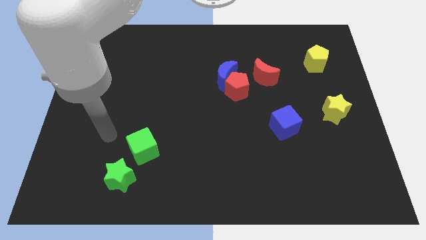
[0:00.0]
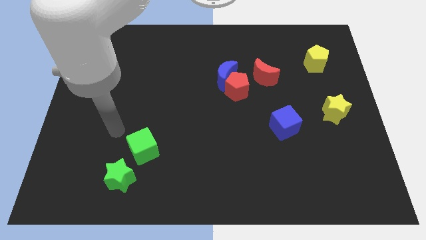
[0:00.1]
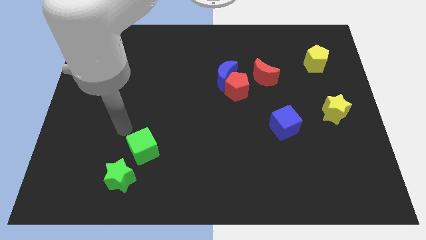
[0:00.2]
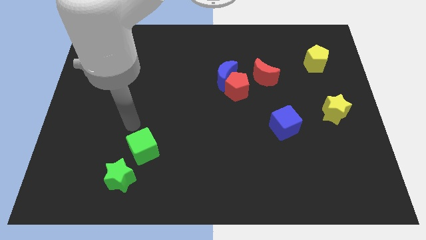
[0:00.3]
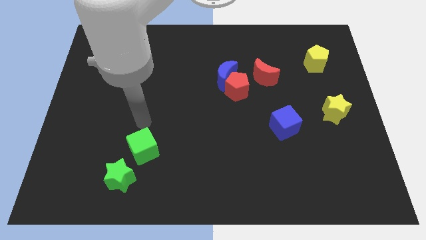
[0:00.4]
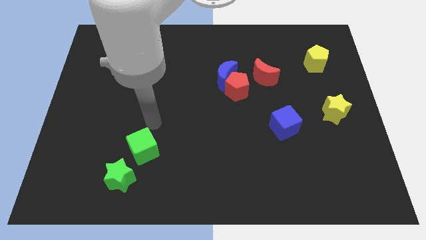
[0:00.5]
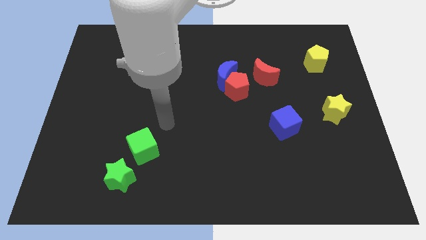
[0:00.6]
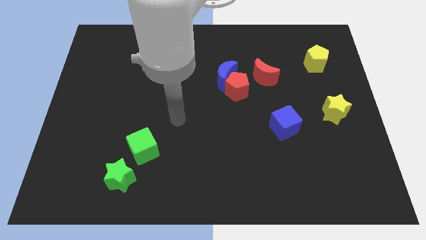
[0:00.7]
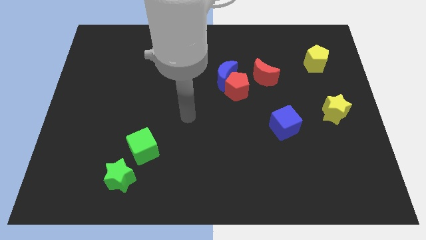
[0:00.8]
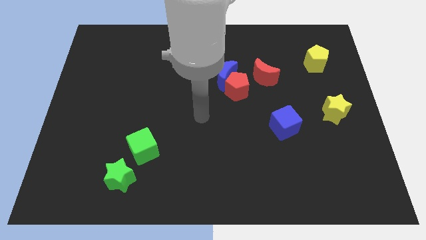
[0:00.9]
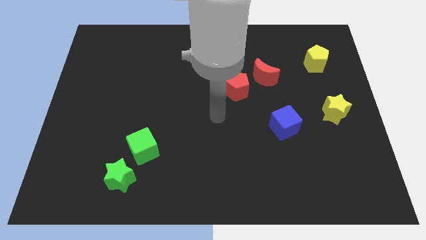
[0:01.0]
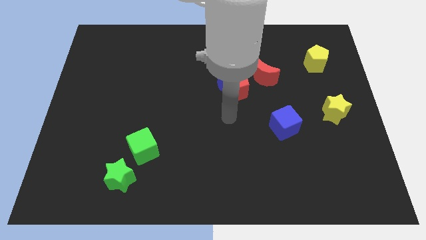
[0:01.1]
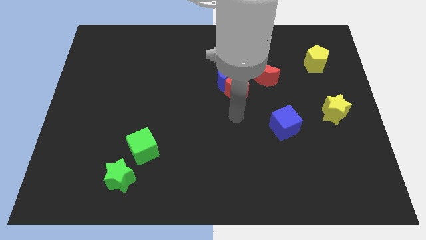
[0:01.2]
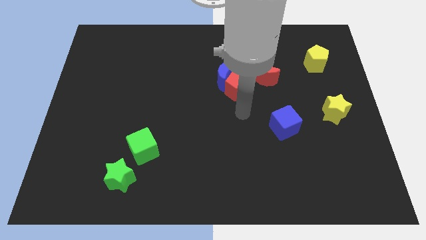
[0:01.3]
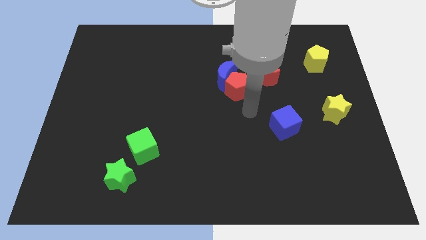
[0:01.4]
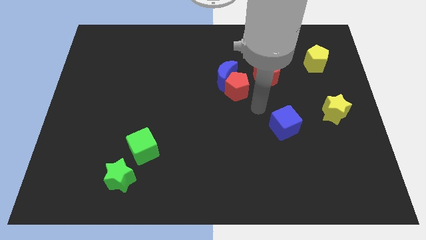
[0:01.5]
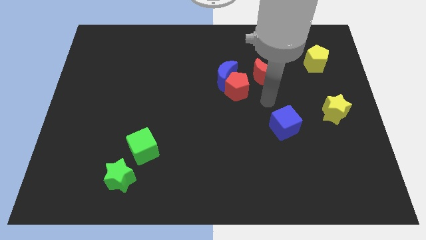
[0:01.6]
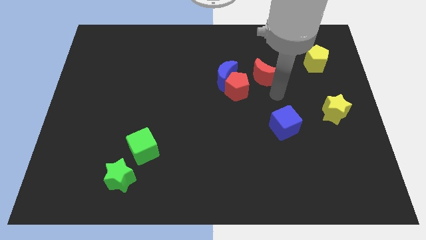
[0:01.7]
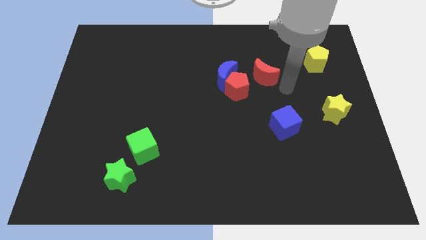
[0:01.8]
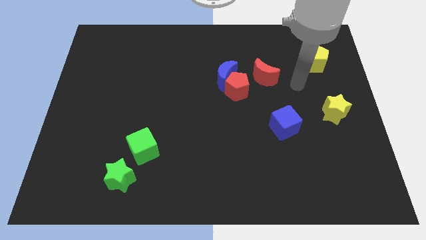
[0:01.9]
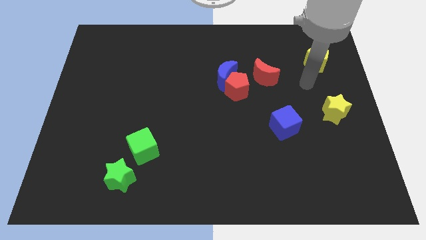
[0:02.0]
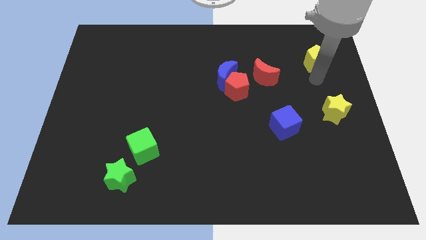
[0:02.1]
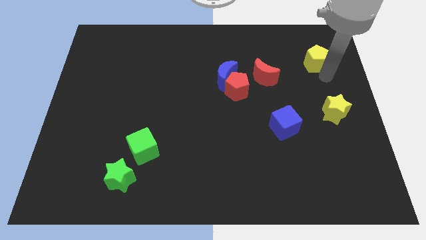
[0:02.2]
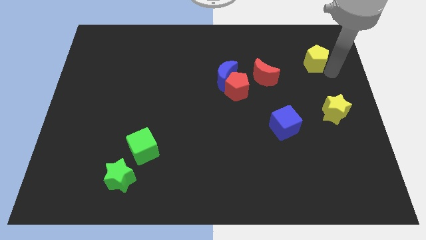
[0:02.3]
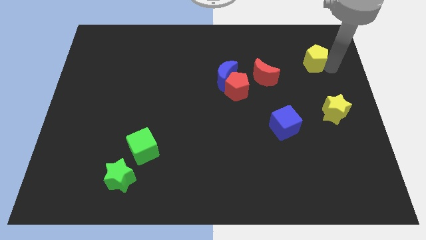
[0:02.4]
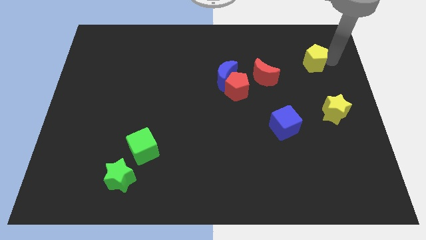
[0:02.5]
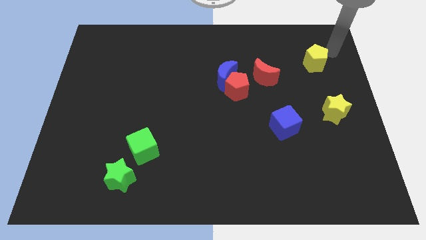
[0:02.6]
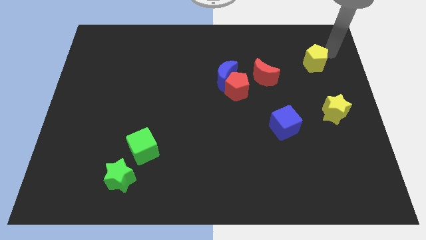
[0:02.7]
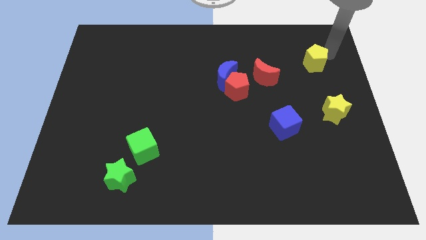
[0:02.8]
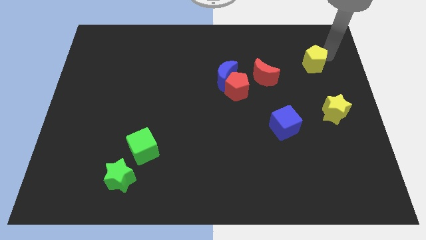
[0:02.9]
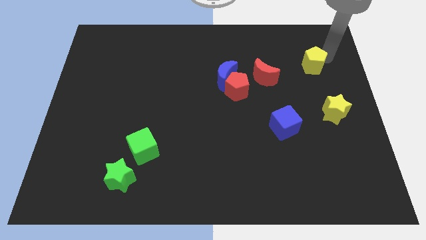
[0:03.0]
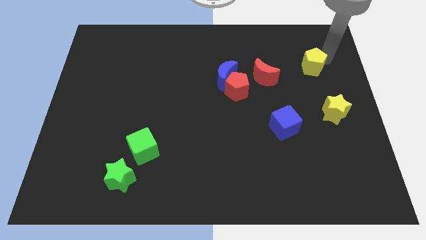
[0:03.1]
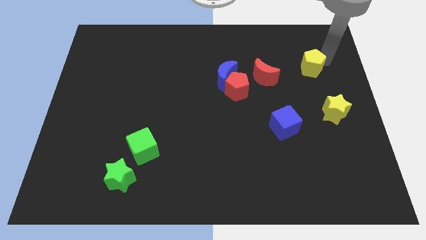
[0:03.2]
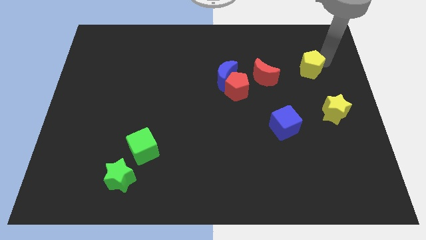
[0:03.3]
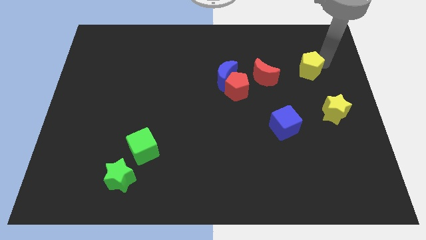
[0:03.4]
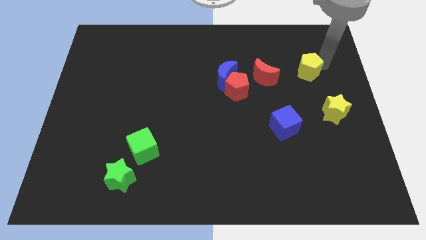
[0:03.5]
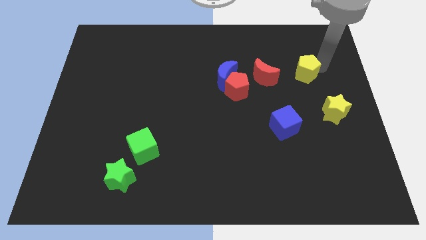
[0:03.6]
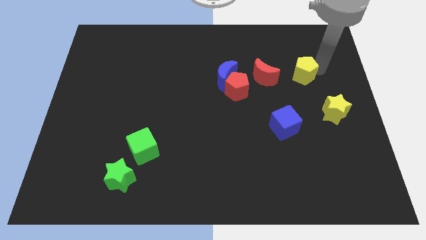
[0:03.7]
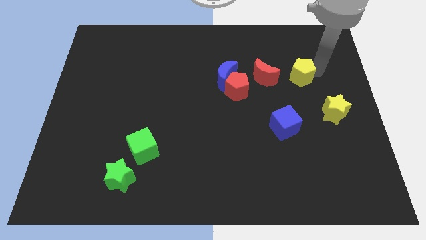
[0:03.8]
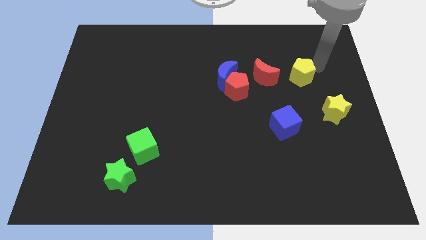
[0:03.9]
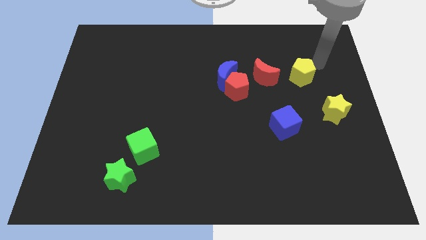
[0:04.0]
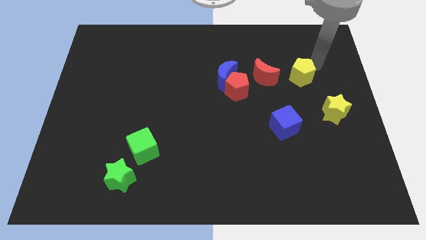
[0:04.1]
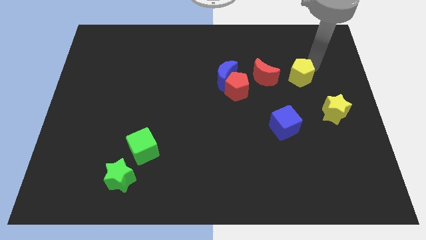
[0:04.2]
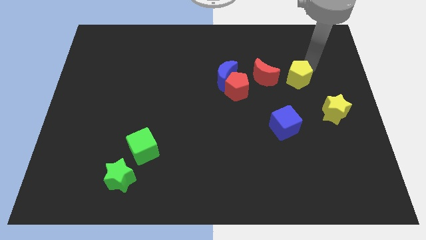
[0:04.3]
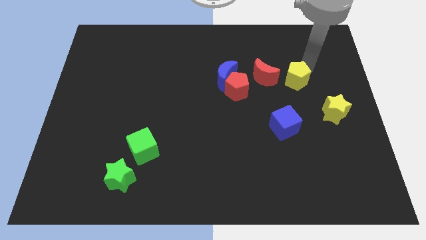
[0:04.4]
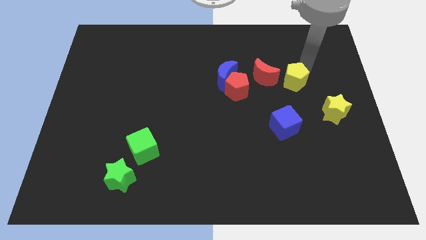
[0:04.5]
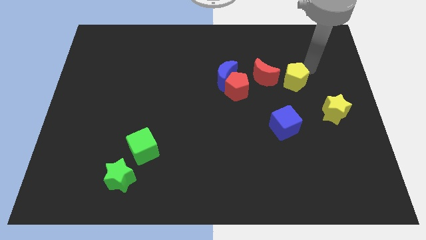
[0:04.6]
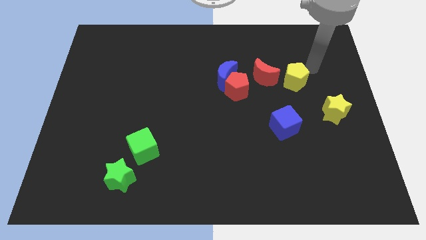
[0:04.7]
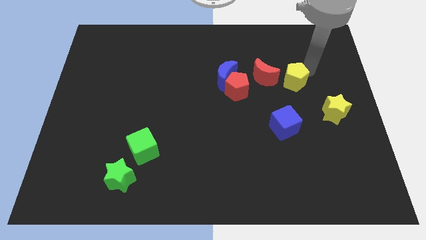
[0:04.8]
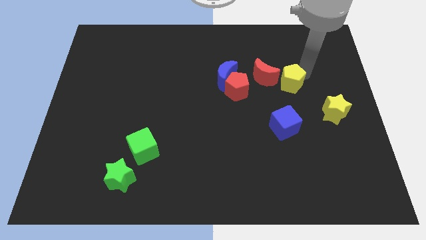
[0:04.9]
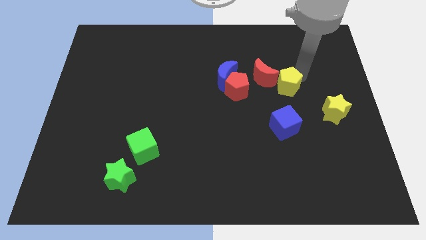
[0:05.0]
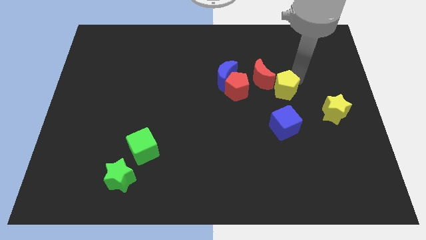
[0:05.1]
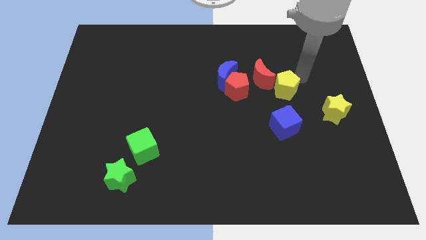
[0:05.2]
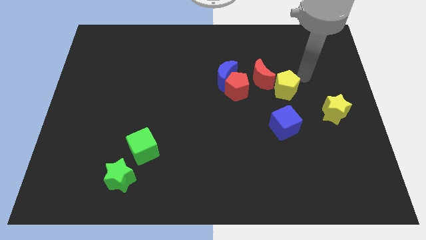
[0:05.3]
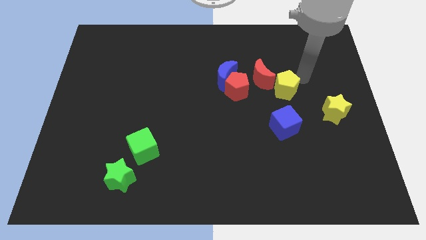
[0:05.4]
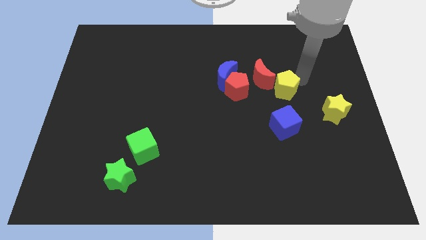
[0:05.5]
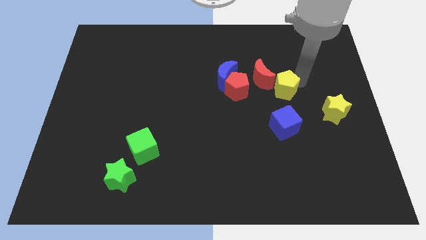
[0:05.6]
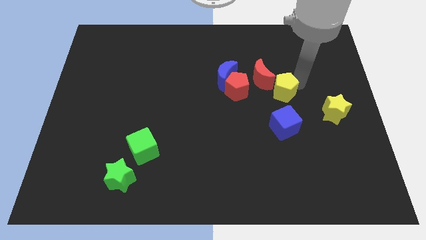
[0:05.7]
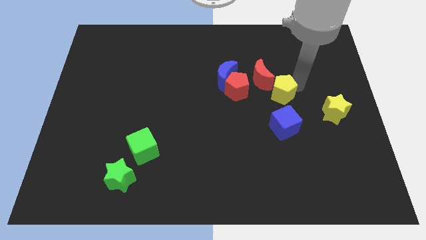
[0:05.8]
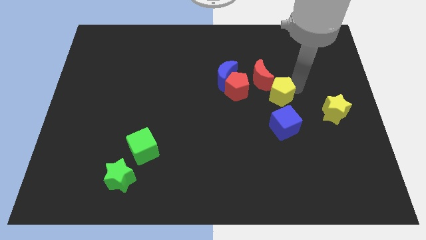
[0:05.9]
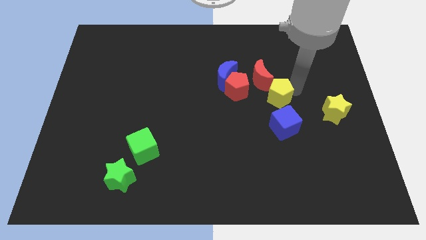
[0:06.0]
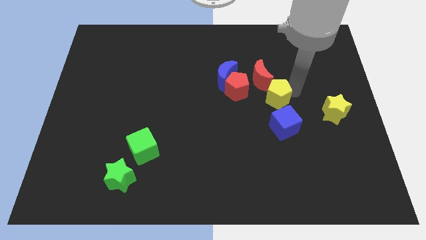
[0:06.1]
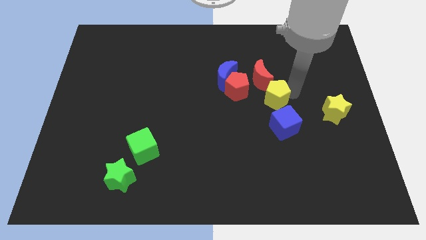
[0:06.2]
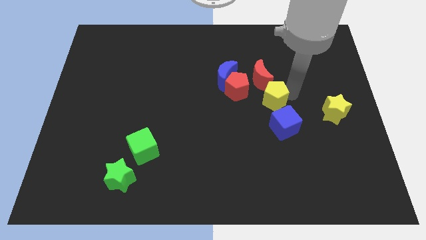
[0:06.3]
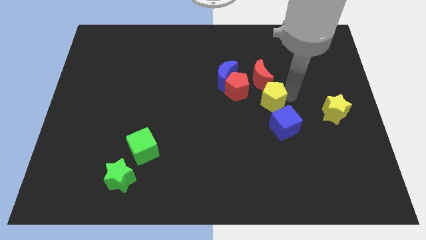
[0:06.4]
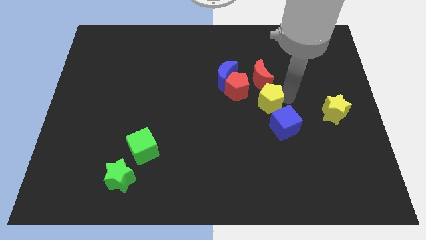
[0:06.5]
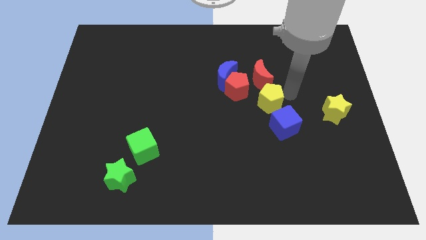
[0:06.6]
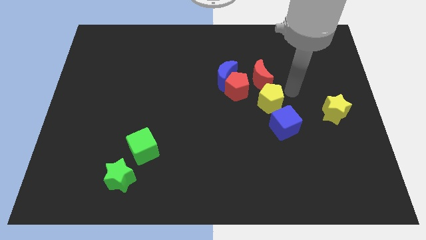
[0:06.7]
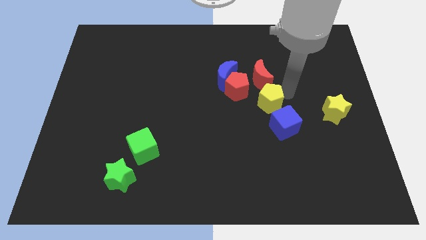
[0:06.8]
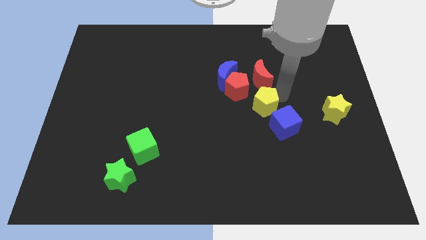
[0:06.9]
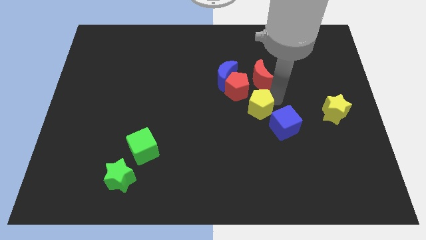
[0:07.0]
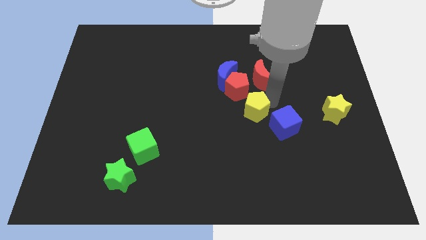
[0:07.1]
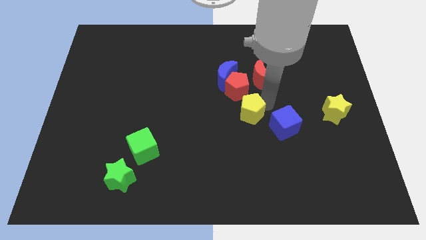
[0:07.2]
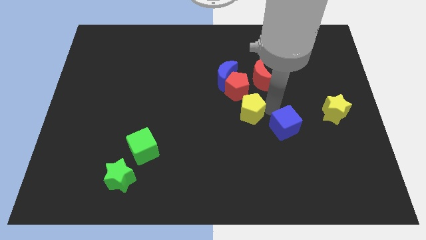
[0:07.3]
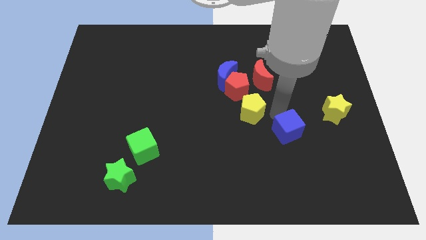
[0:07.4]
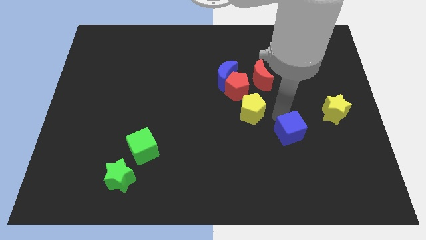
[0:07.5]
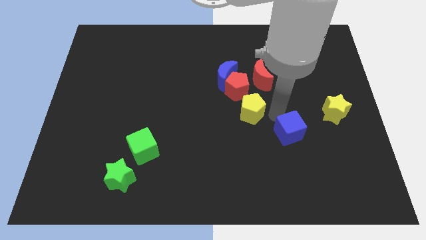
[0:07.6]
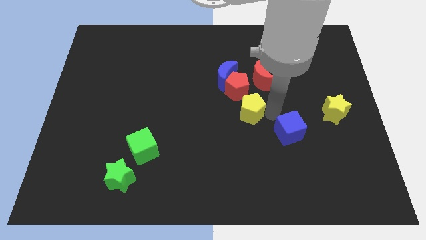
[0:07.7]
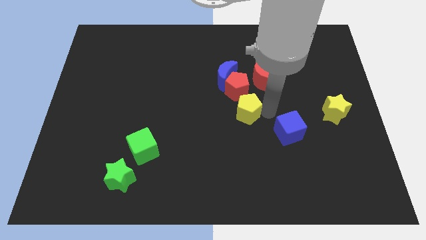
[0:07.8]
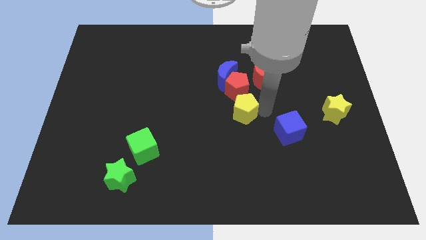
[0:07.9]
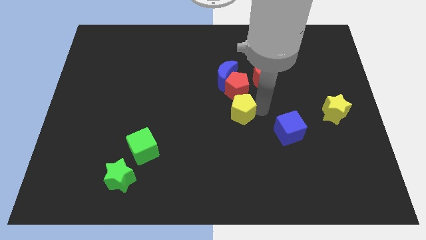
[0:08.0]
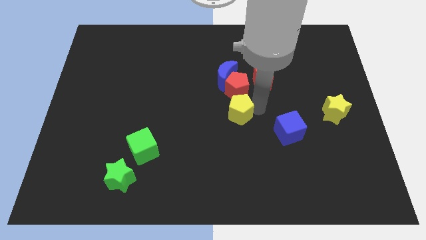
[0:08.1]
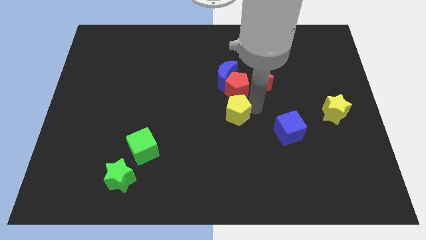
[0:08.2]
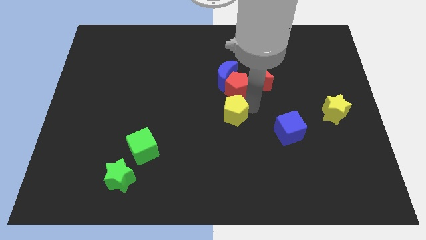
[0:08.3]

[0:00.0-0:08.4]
move the yellow pentagon to the bottom left of the red pentagon
